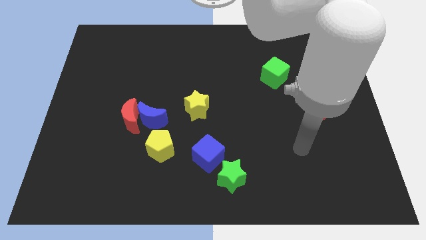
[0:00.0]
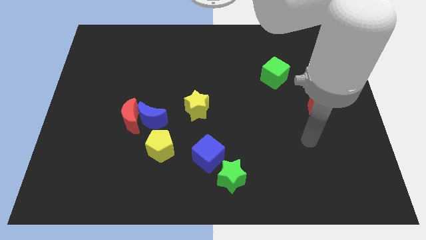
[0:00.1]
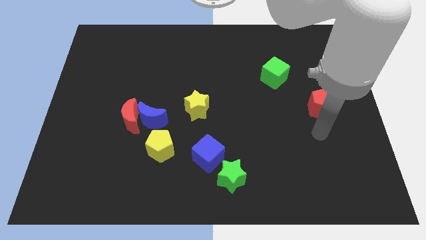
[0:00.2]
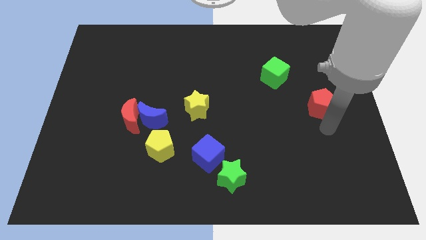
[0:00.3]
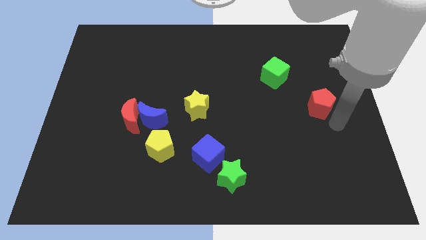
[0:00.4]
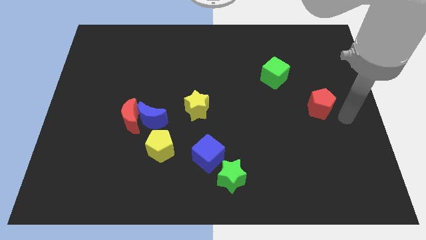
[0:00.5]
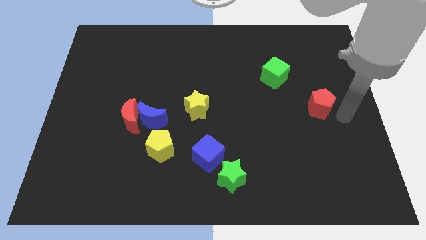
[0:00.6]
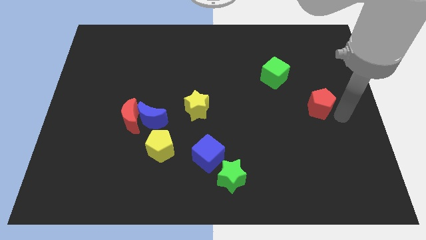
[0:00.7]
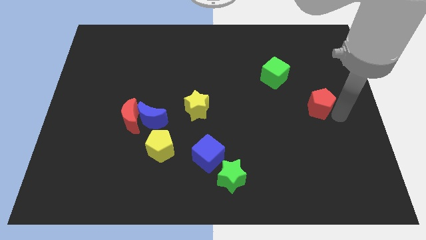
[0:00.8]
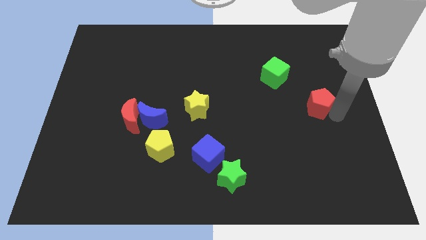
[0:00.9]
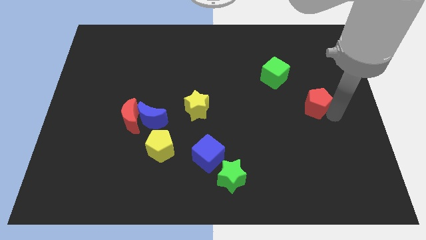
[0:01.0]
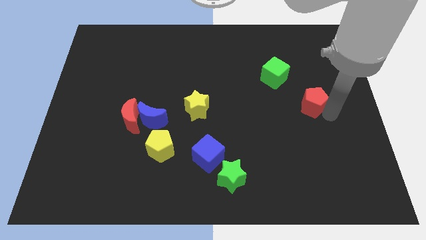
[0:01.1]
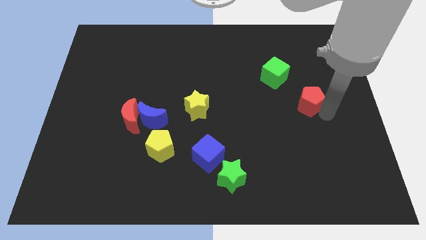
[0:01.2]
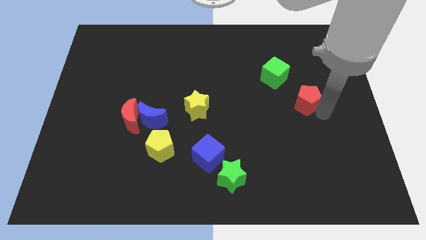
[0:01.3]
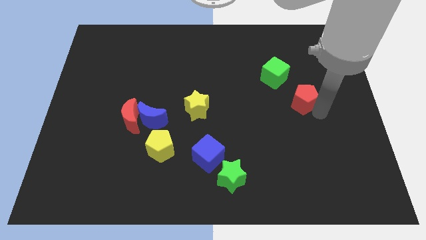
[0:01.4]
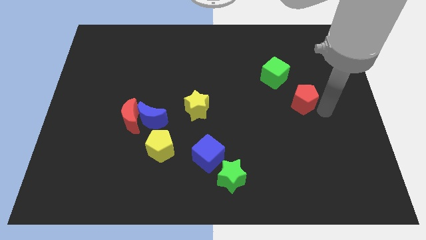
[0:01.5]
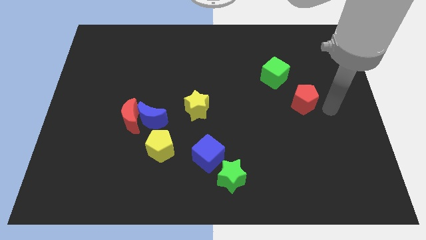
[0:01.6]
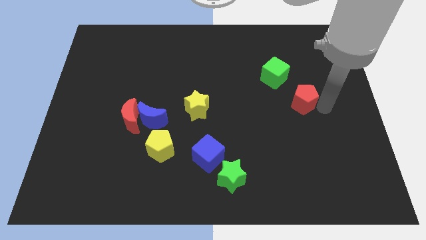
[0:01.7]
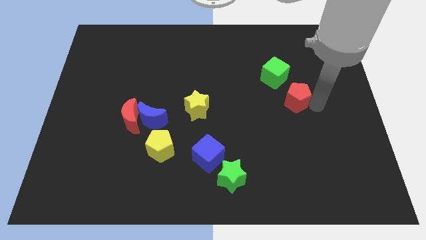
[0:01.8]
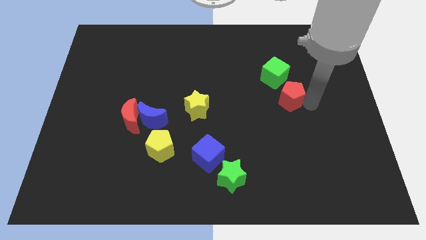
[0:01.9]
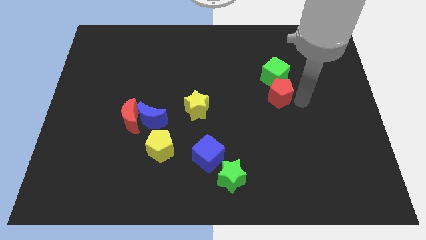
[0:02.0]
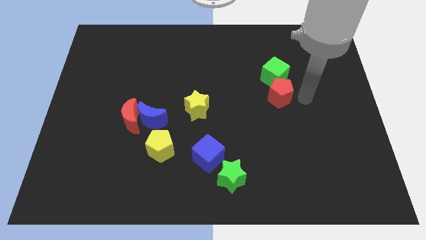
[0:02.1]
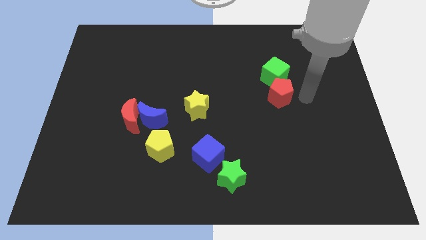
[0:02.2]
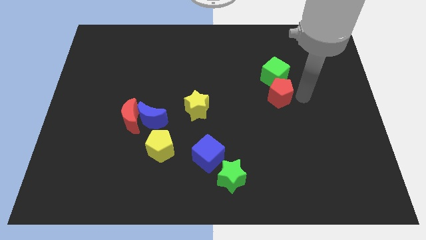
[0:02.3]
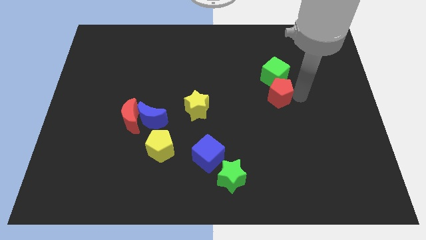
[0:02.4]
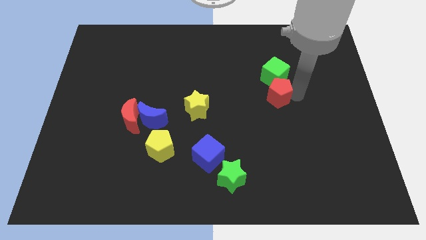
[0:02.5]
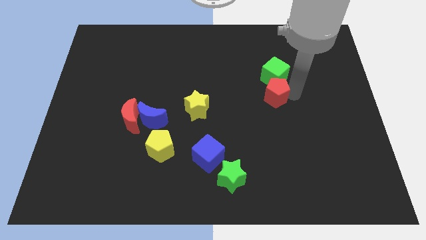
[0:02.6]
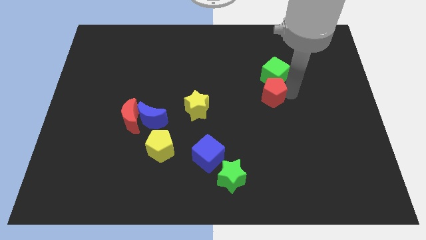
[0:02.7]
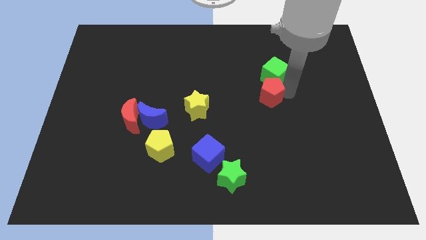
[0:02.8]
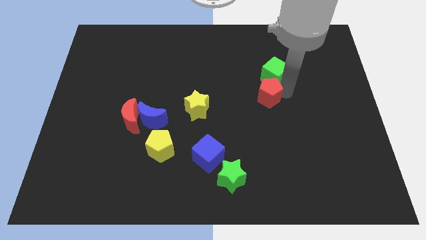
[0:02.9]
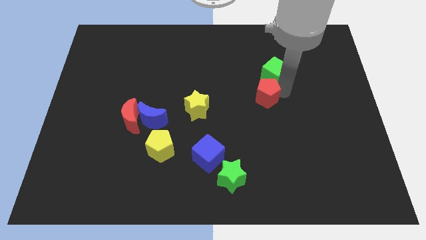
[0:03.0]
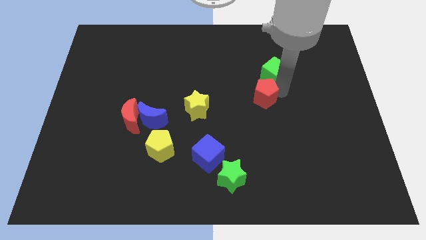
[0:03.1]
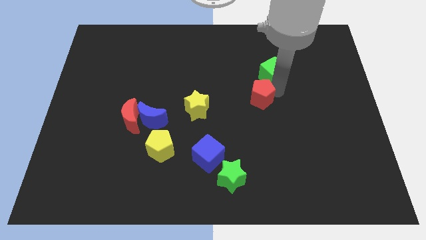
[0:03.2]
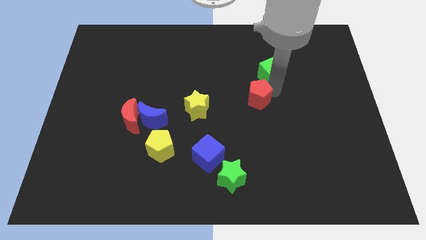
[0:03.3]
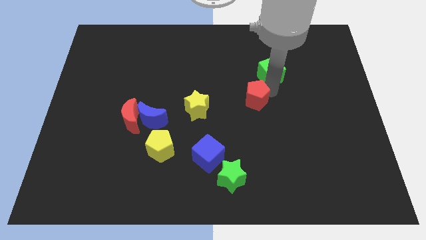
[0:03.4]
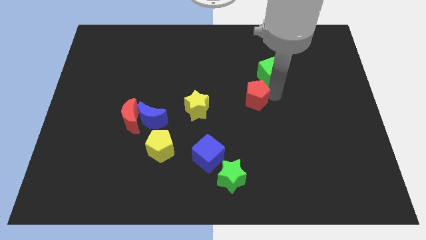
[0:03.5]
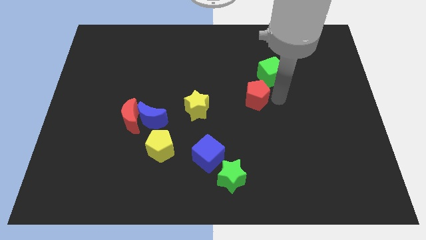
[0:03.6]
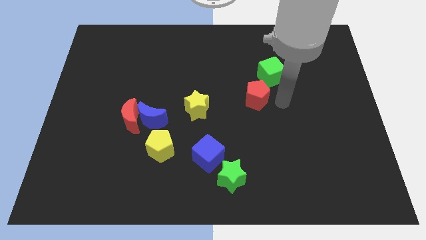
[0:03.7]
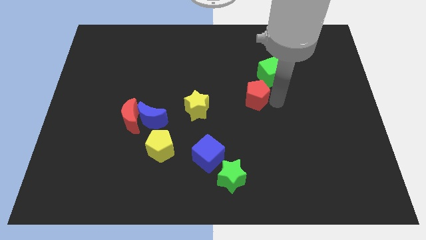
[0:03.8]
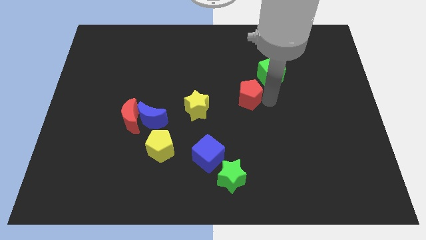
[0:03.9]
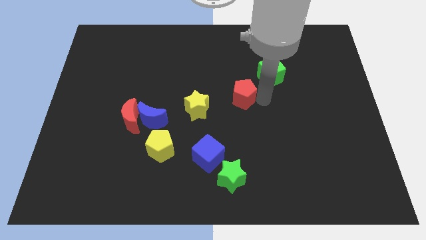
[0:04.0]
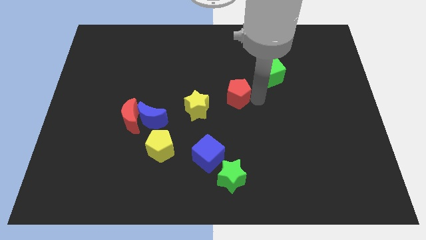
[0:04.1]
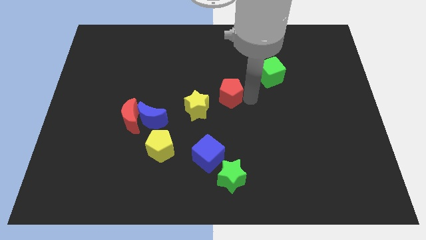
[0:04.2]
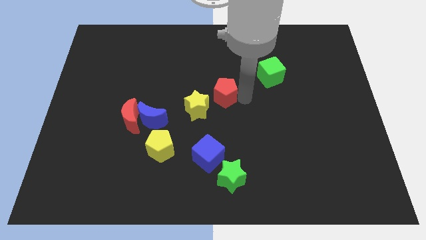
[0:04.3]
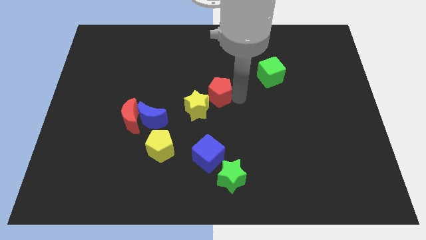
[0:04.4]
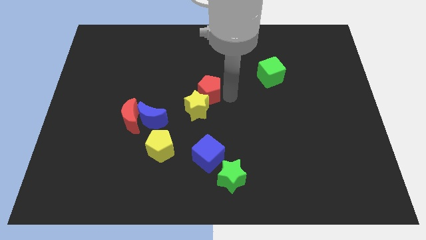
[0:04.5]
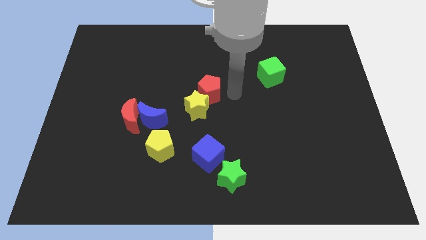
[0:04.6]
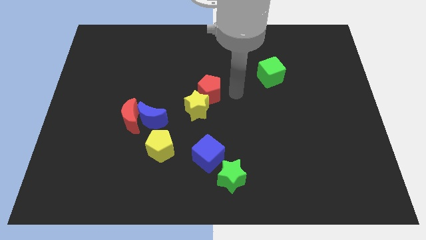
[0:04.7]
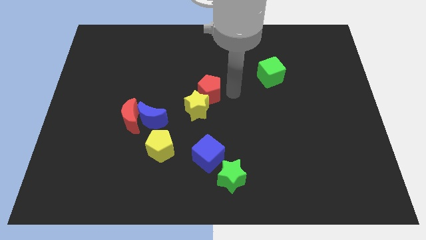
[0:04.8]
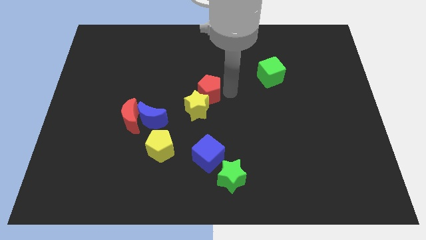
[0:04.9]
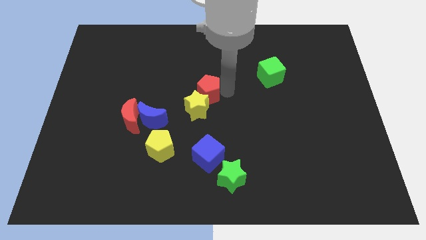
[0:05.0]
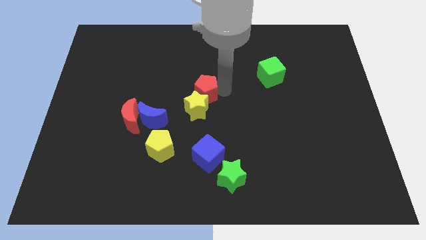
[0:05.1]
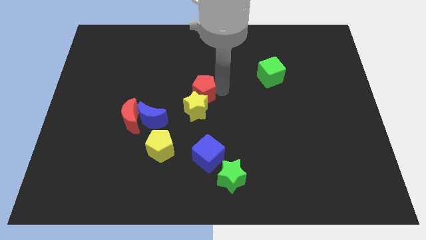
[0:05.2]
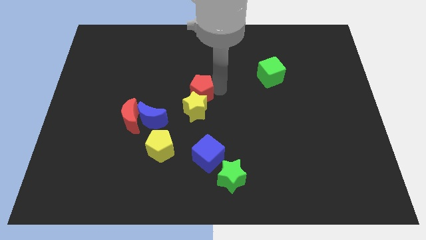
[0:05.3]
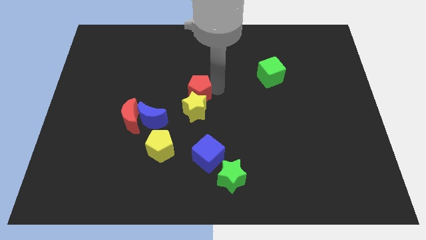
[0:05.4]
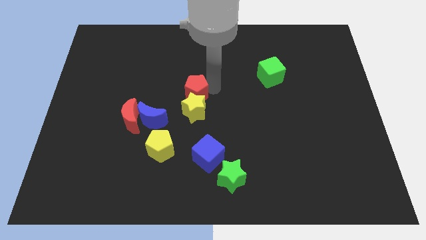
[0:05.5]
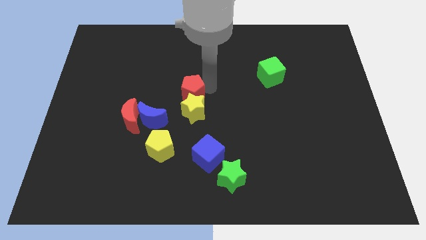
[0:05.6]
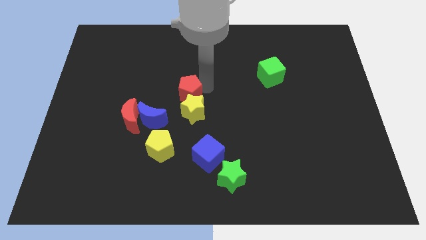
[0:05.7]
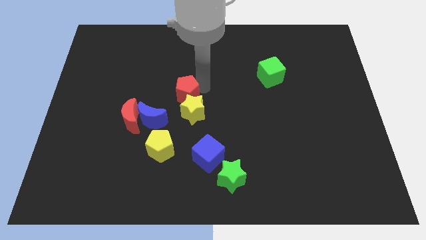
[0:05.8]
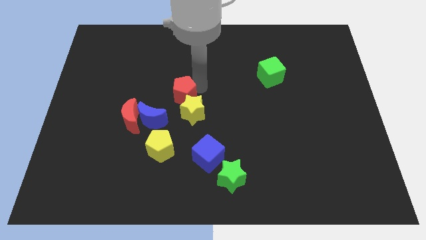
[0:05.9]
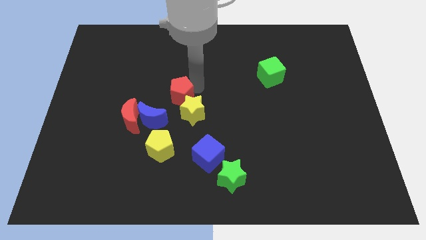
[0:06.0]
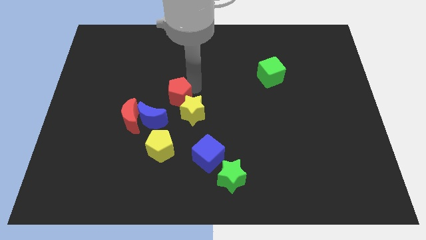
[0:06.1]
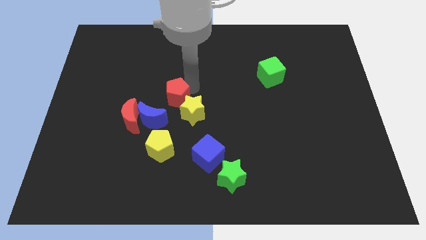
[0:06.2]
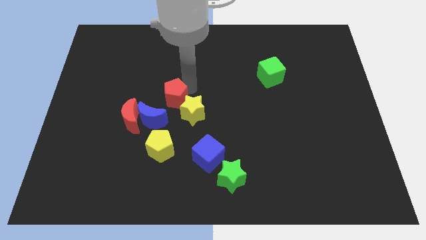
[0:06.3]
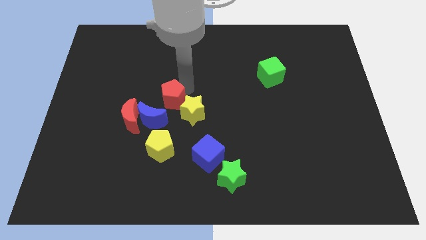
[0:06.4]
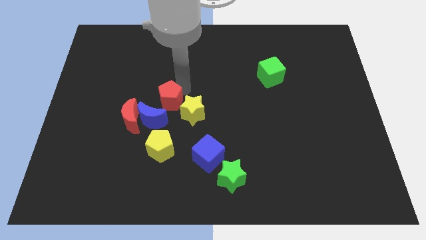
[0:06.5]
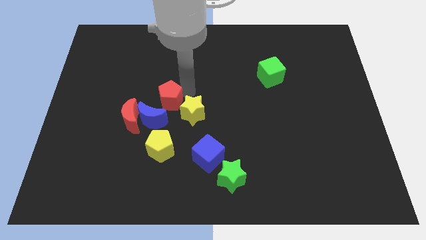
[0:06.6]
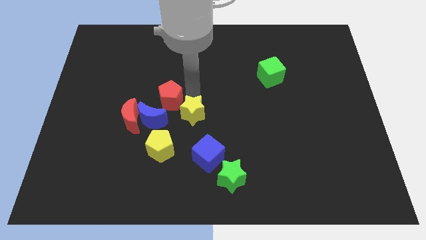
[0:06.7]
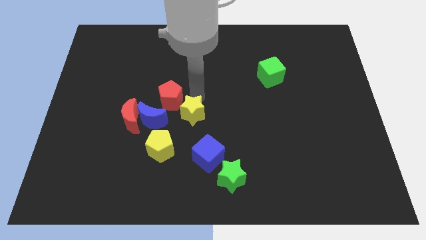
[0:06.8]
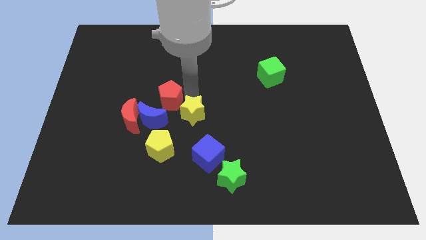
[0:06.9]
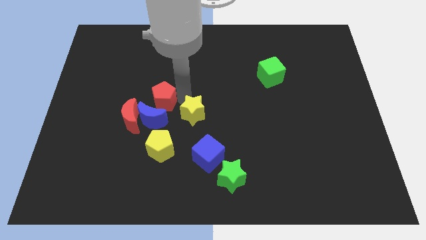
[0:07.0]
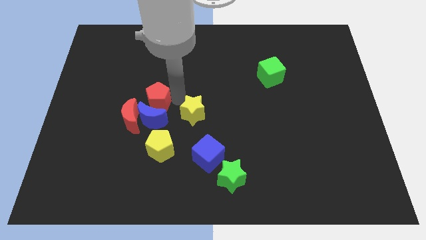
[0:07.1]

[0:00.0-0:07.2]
move the red pentagon diagonally up and to the left of the blue moon
